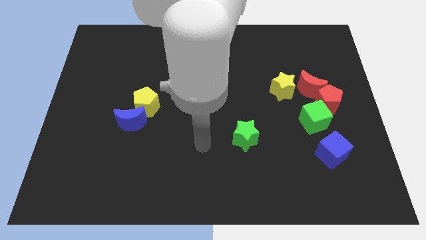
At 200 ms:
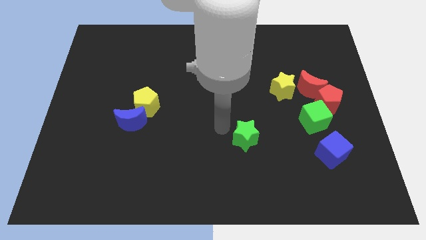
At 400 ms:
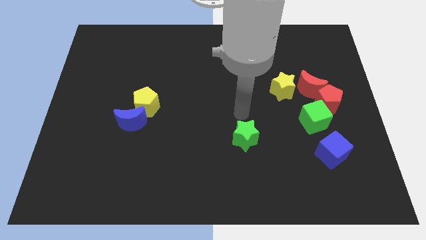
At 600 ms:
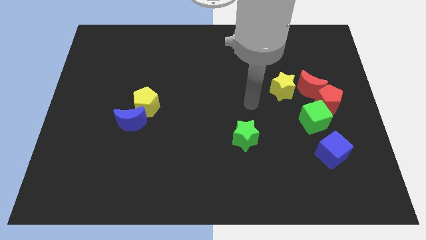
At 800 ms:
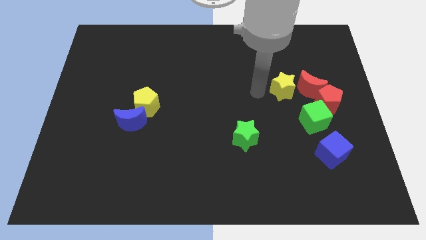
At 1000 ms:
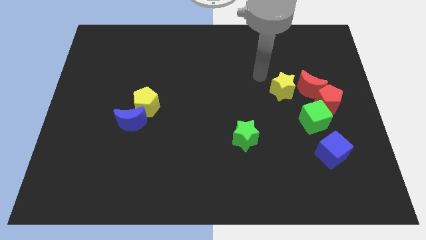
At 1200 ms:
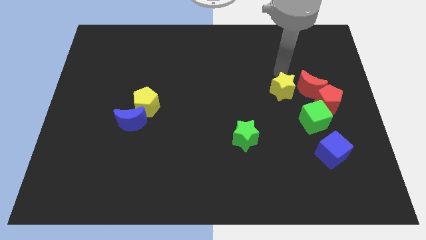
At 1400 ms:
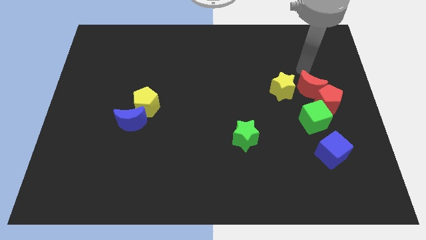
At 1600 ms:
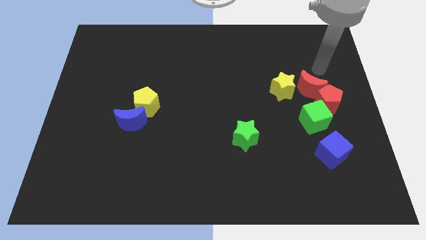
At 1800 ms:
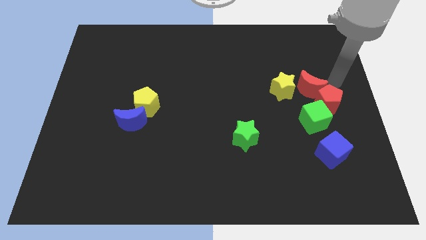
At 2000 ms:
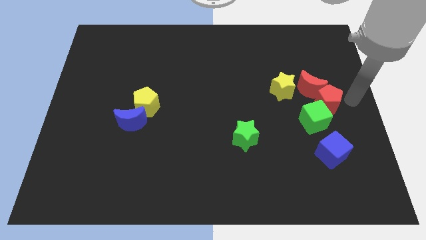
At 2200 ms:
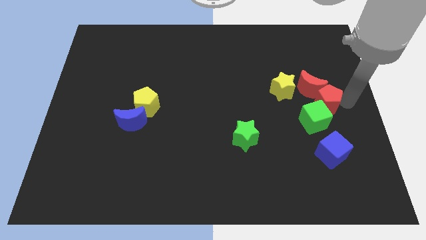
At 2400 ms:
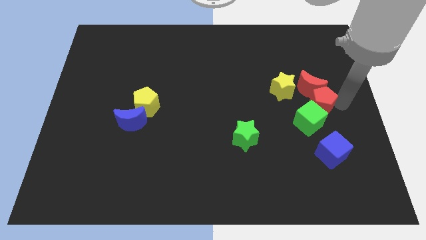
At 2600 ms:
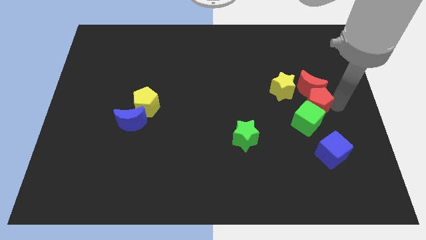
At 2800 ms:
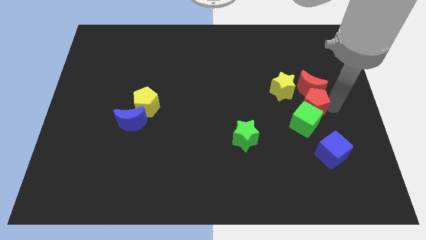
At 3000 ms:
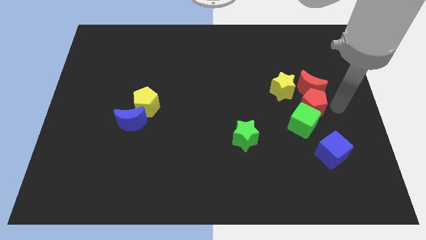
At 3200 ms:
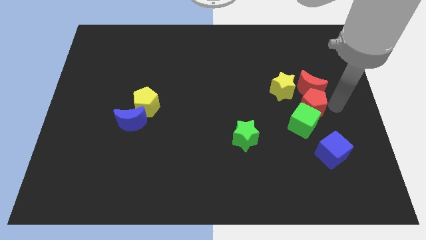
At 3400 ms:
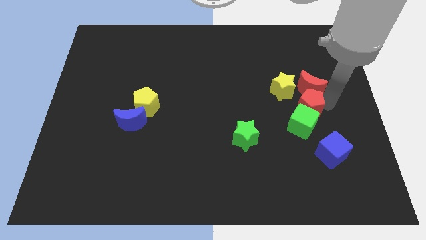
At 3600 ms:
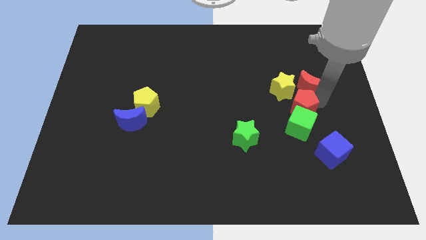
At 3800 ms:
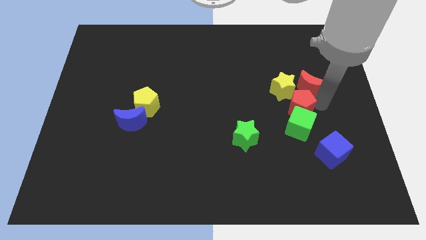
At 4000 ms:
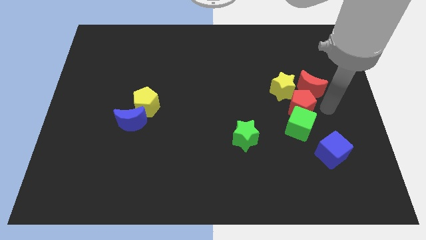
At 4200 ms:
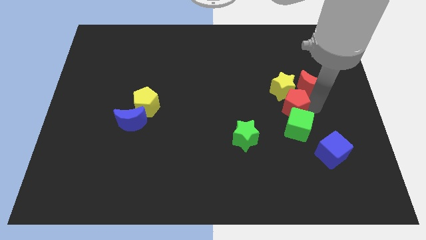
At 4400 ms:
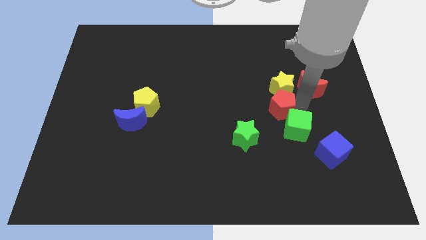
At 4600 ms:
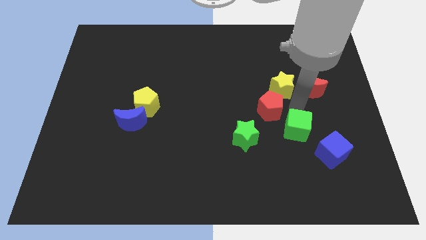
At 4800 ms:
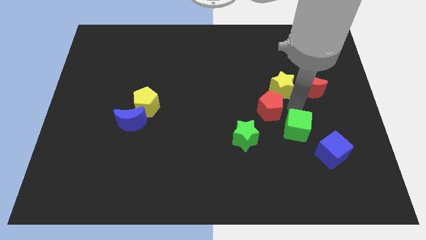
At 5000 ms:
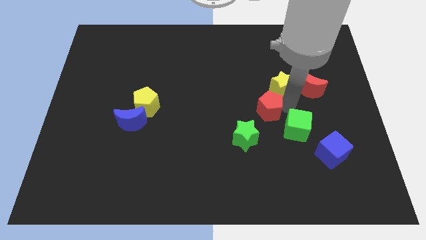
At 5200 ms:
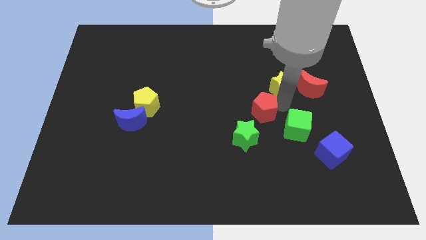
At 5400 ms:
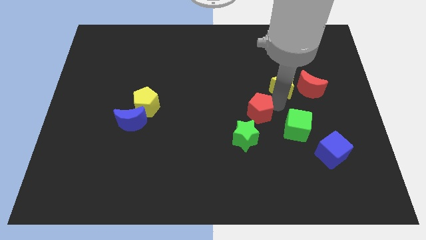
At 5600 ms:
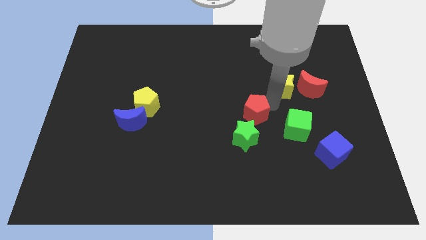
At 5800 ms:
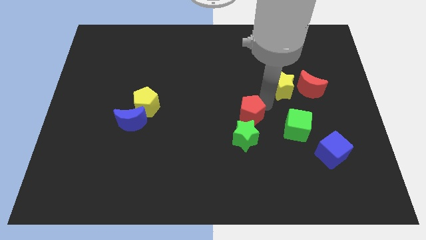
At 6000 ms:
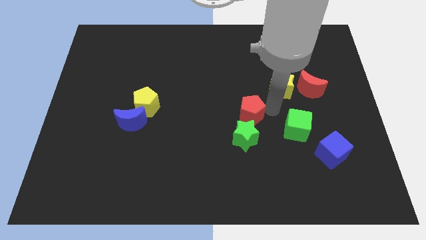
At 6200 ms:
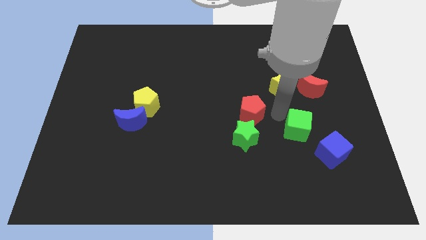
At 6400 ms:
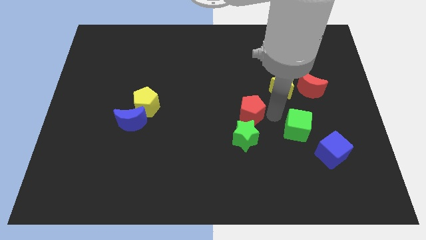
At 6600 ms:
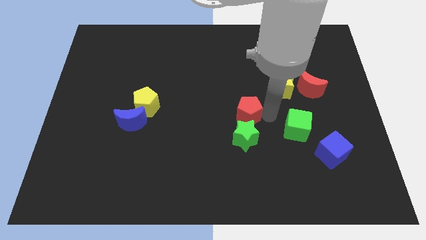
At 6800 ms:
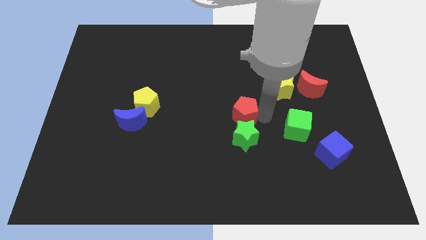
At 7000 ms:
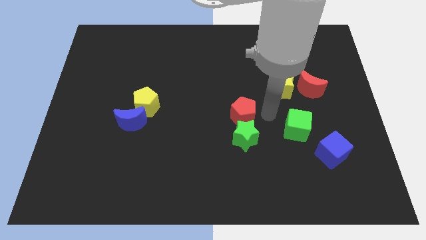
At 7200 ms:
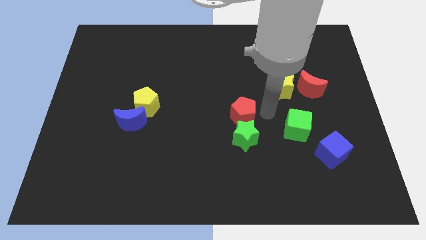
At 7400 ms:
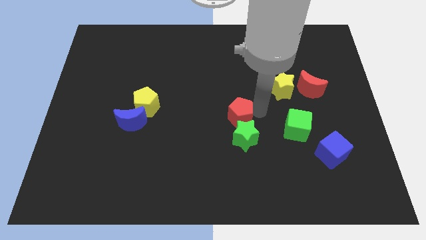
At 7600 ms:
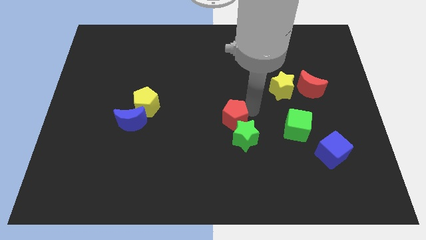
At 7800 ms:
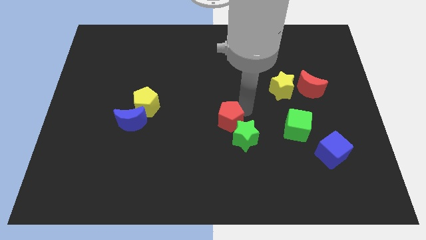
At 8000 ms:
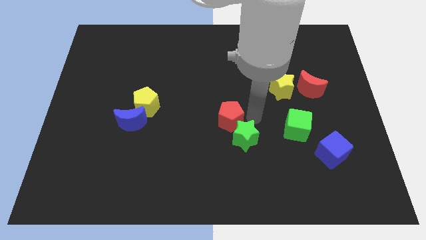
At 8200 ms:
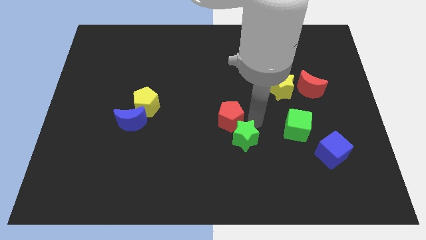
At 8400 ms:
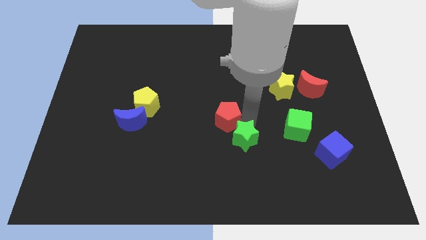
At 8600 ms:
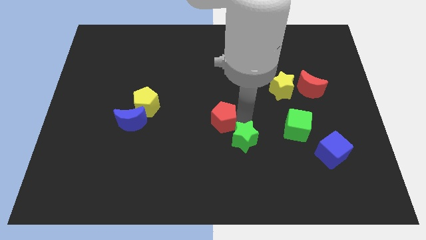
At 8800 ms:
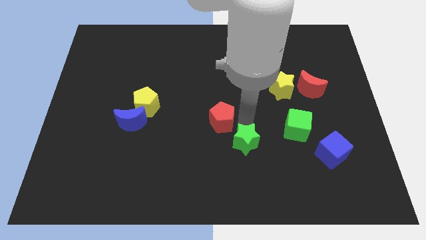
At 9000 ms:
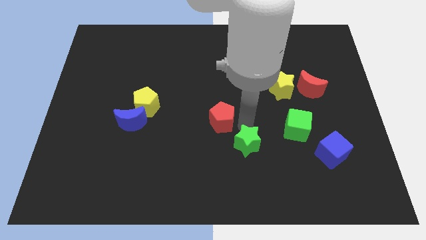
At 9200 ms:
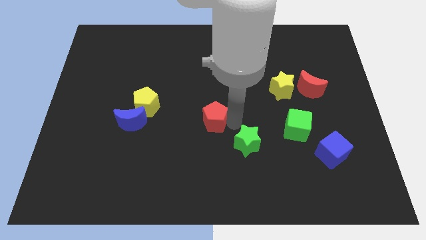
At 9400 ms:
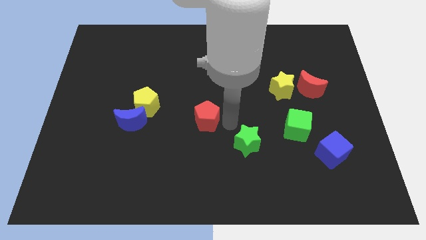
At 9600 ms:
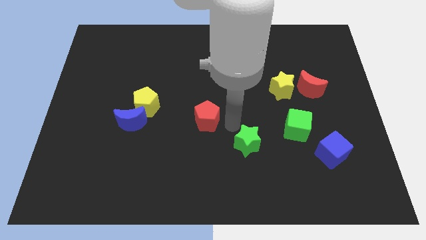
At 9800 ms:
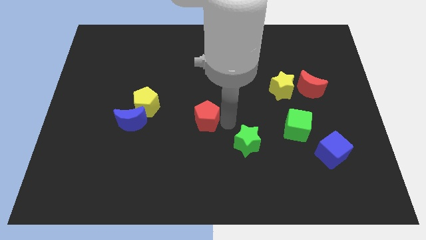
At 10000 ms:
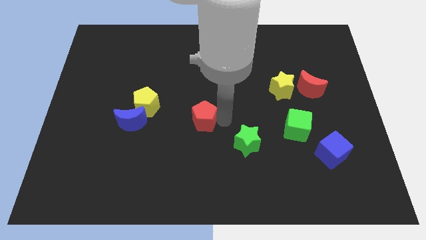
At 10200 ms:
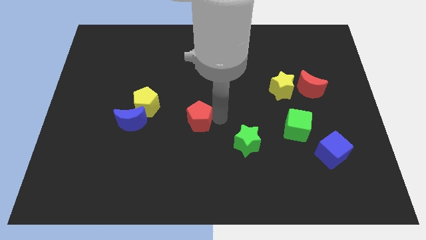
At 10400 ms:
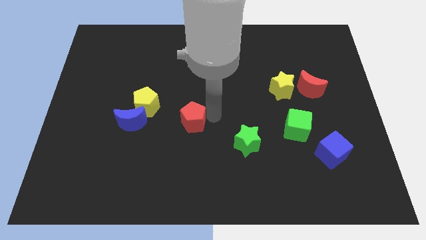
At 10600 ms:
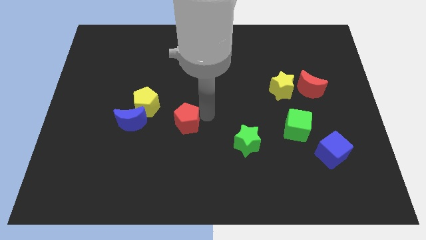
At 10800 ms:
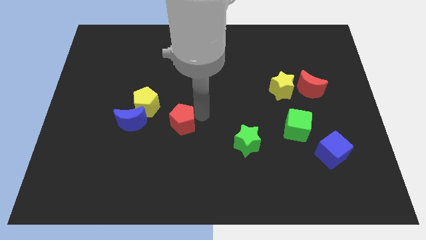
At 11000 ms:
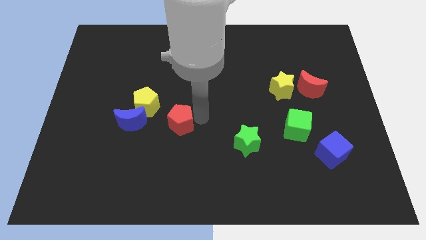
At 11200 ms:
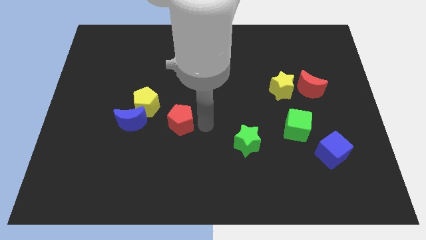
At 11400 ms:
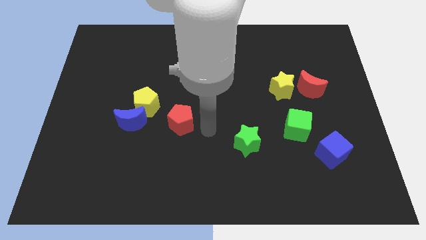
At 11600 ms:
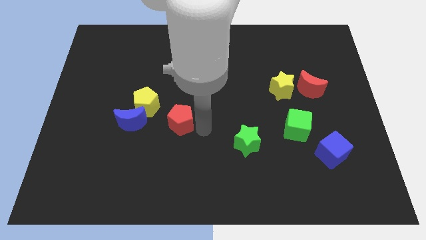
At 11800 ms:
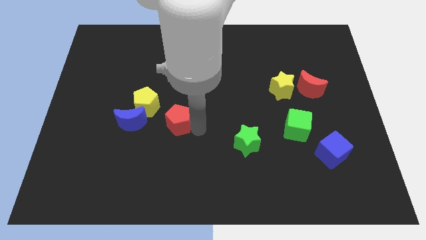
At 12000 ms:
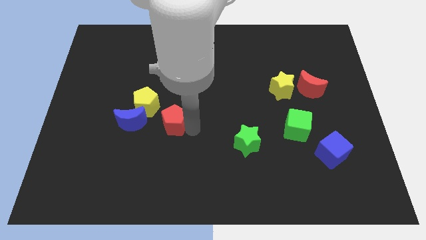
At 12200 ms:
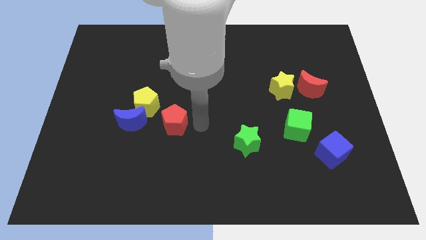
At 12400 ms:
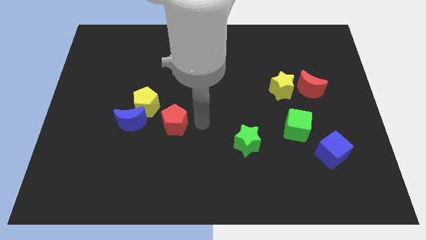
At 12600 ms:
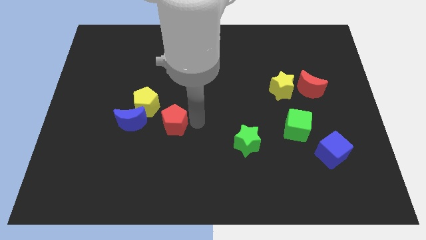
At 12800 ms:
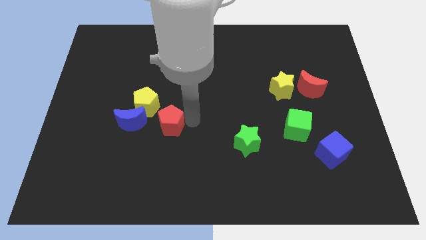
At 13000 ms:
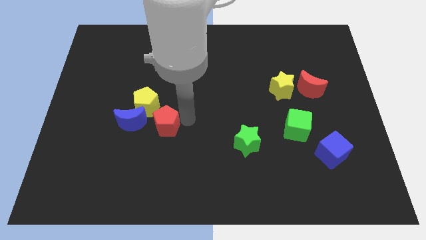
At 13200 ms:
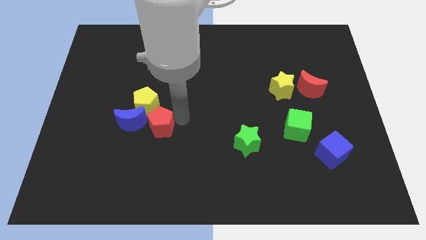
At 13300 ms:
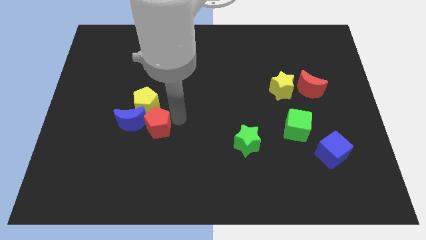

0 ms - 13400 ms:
slide the red pentagon next to the blue moon

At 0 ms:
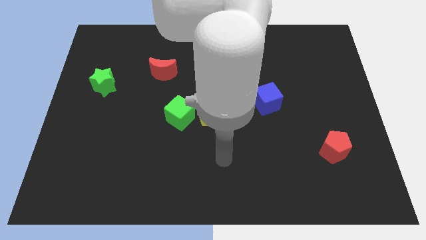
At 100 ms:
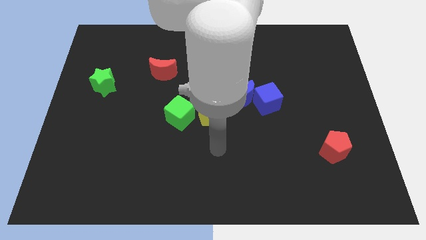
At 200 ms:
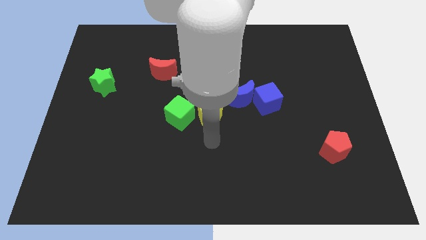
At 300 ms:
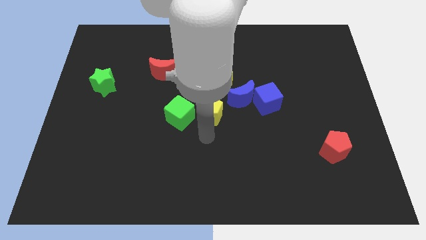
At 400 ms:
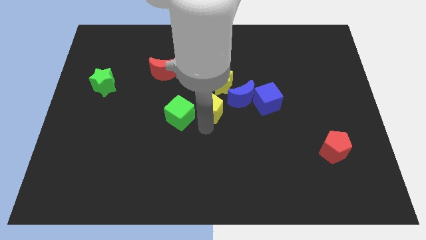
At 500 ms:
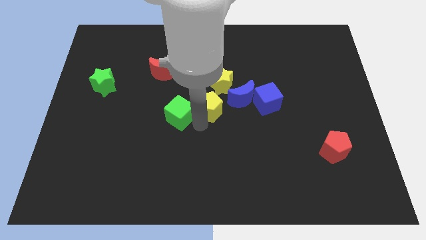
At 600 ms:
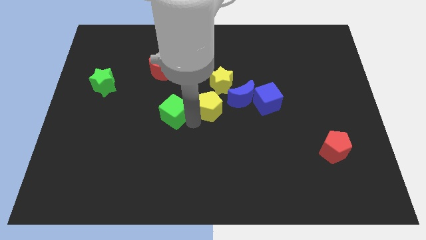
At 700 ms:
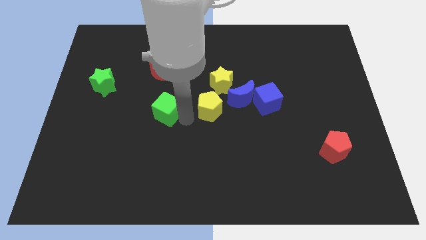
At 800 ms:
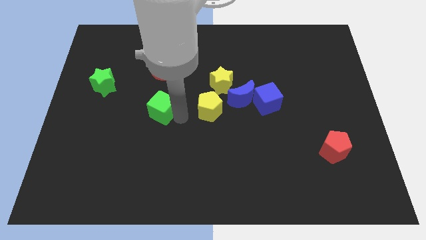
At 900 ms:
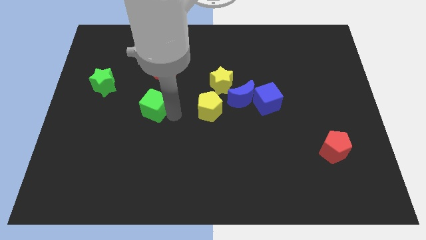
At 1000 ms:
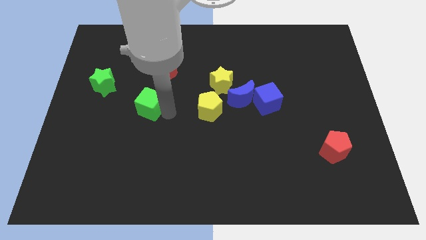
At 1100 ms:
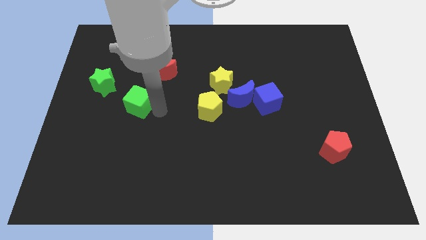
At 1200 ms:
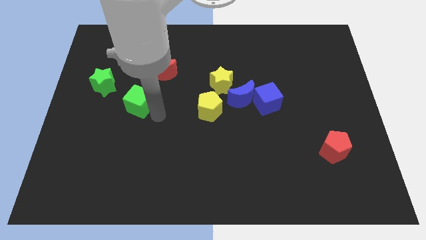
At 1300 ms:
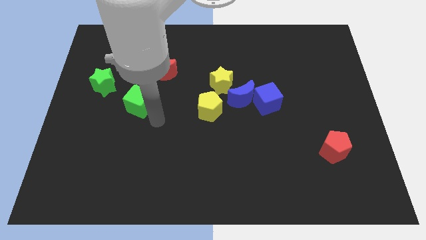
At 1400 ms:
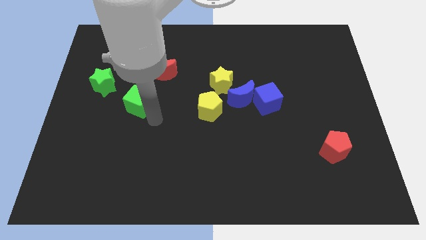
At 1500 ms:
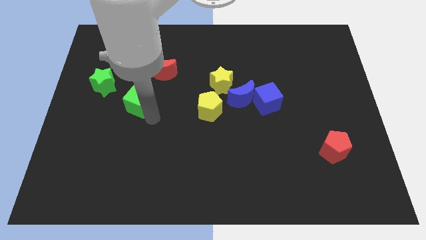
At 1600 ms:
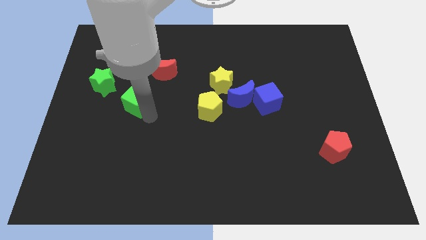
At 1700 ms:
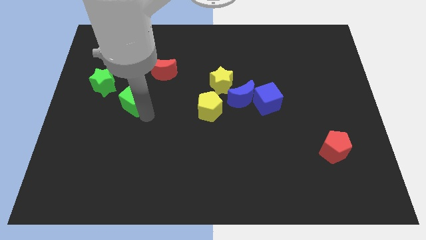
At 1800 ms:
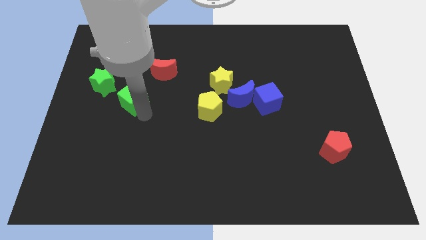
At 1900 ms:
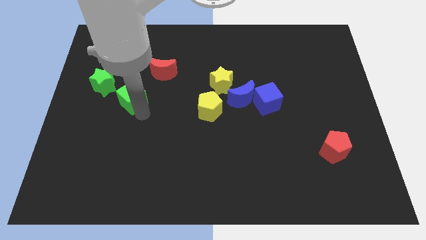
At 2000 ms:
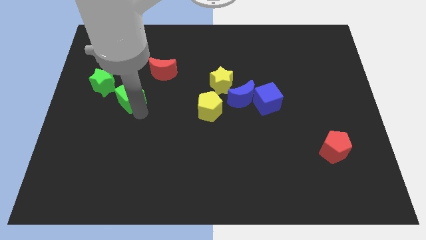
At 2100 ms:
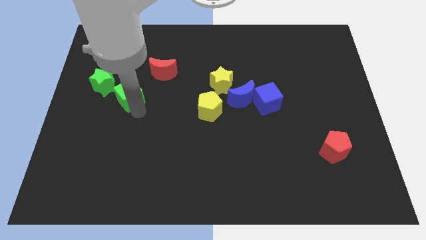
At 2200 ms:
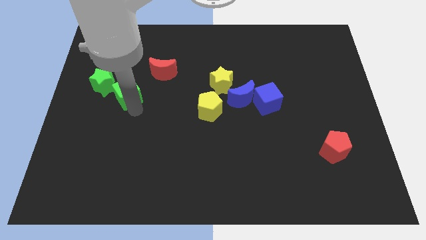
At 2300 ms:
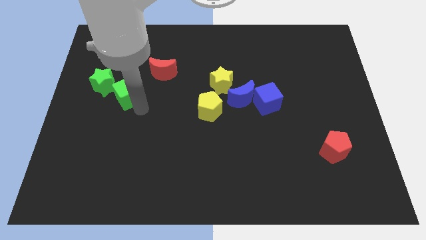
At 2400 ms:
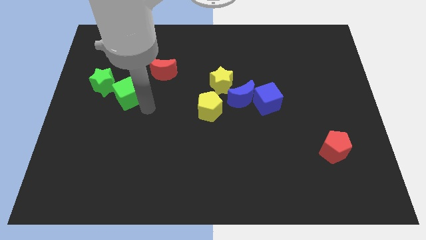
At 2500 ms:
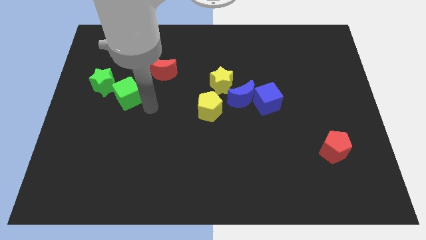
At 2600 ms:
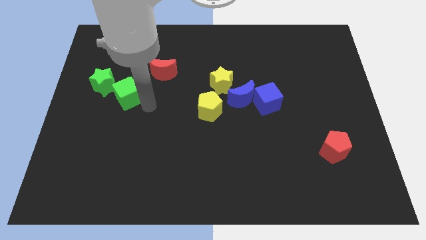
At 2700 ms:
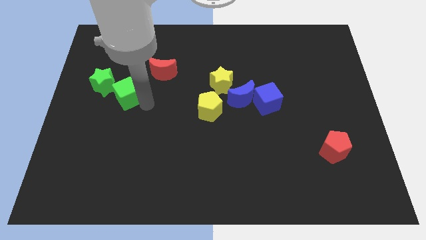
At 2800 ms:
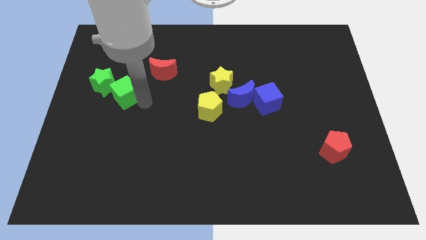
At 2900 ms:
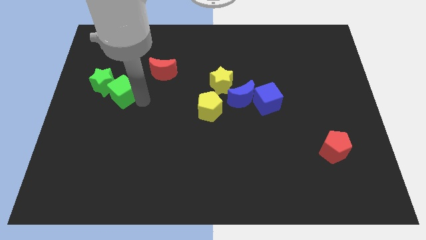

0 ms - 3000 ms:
move the green cube close to the green star
